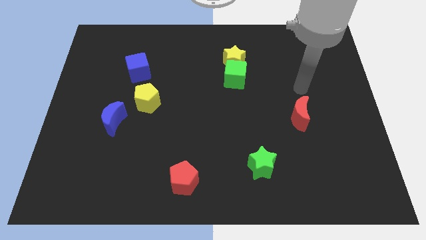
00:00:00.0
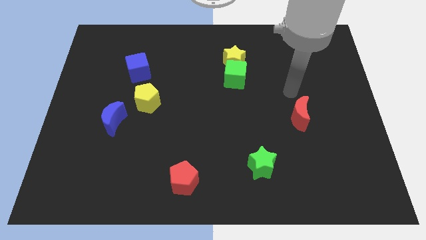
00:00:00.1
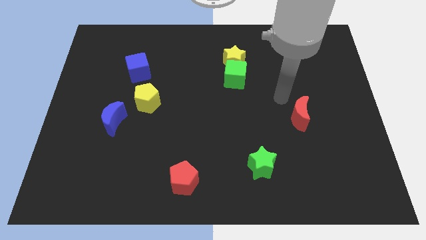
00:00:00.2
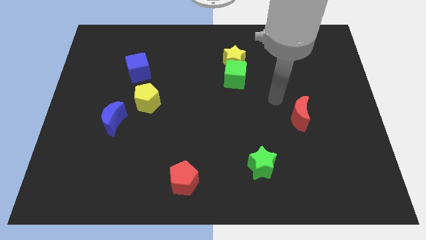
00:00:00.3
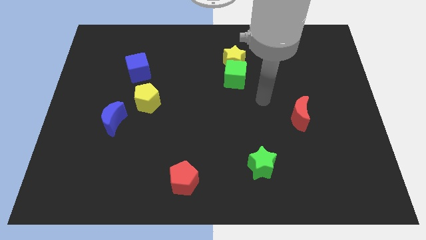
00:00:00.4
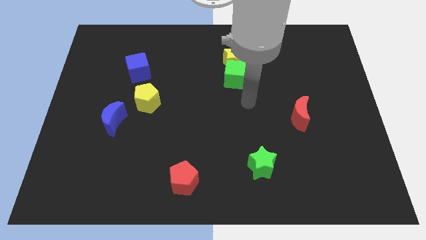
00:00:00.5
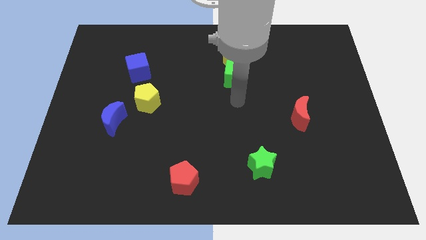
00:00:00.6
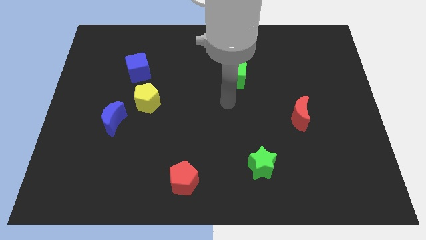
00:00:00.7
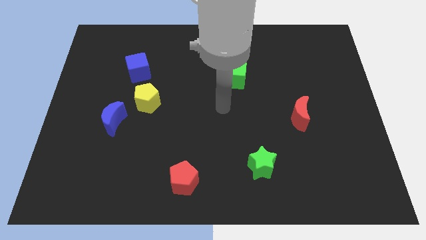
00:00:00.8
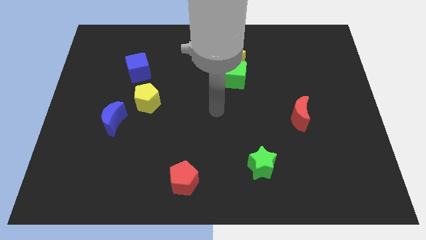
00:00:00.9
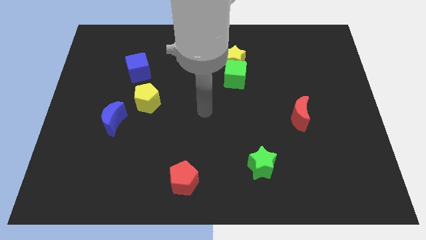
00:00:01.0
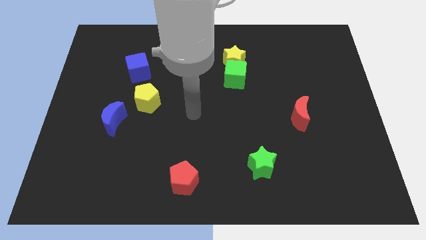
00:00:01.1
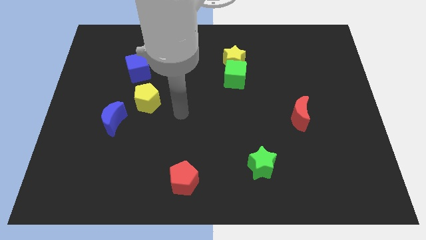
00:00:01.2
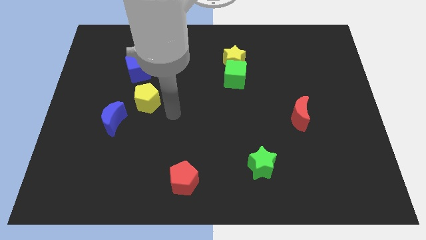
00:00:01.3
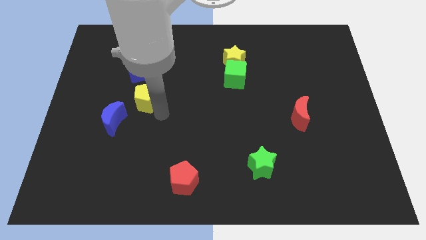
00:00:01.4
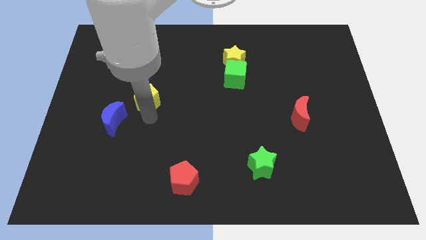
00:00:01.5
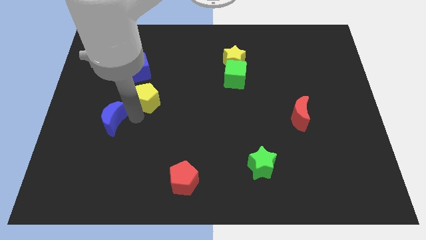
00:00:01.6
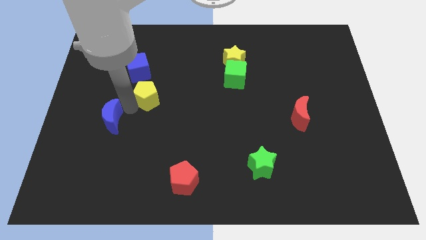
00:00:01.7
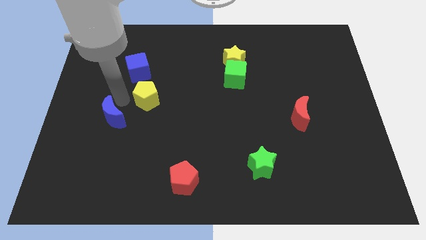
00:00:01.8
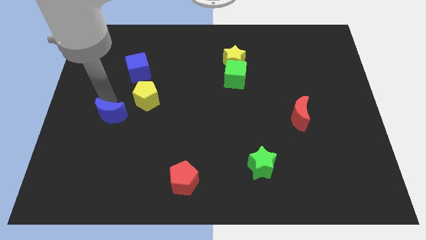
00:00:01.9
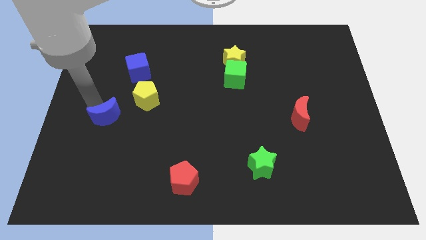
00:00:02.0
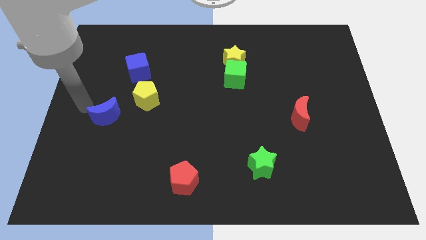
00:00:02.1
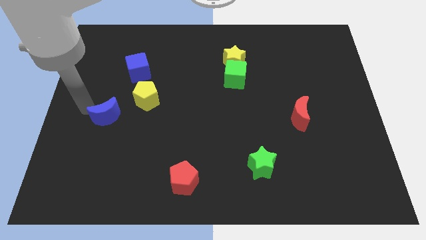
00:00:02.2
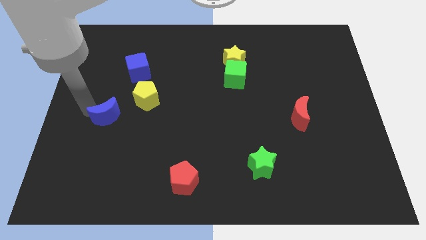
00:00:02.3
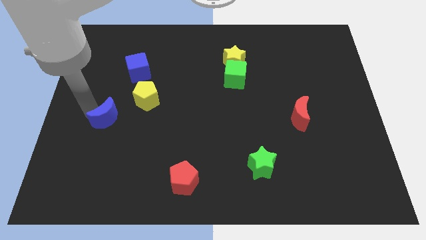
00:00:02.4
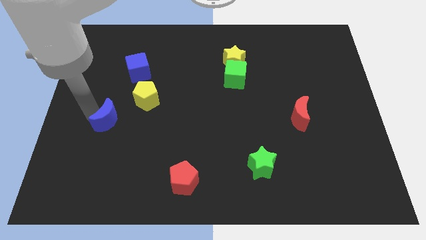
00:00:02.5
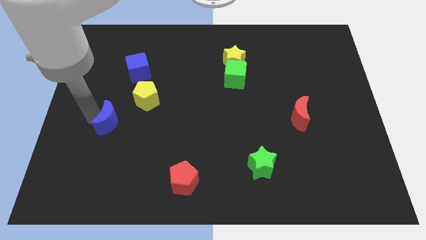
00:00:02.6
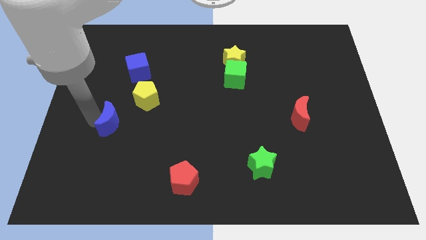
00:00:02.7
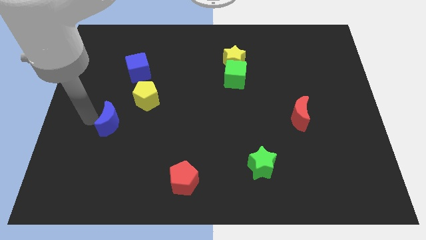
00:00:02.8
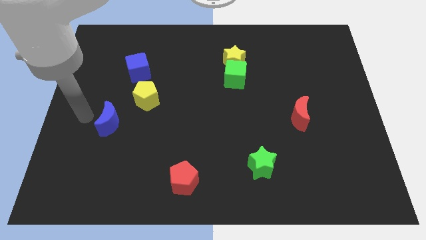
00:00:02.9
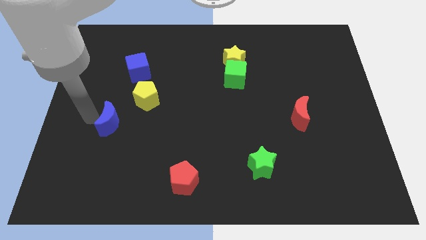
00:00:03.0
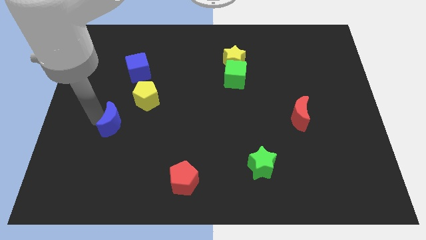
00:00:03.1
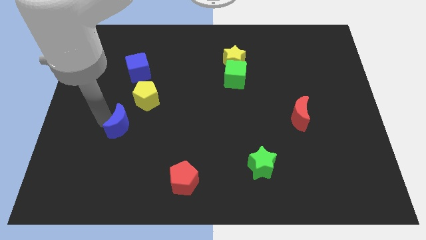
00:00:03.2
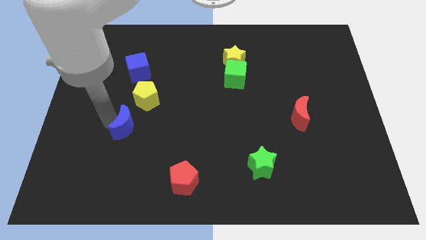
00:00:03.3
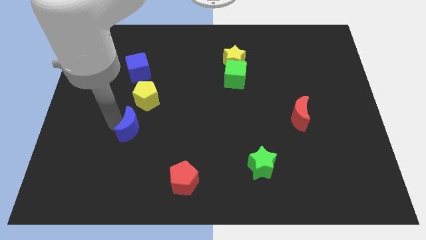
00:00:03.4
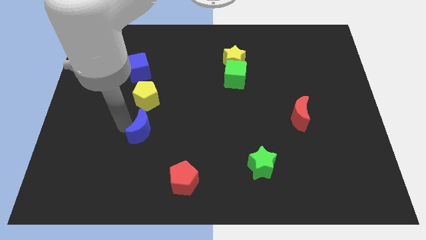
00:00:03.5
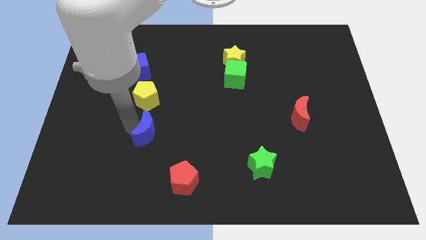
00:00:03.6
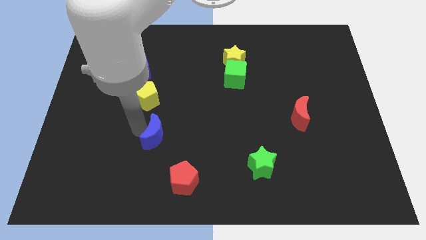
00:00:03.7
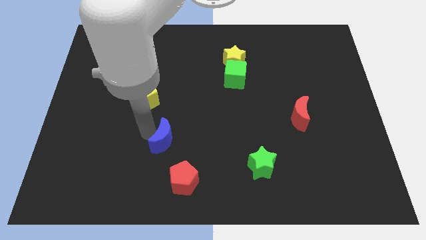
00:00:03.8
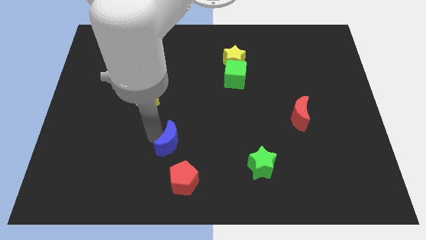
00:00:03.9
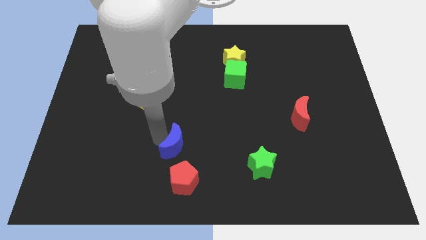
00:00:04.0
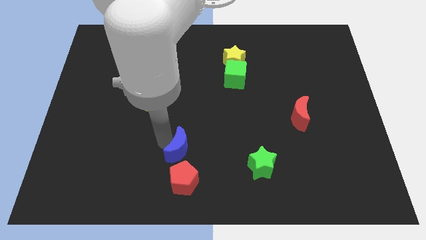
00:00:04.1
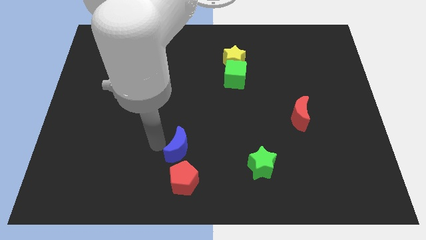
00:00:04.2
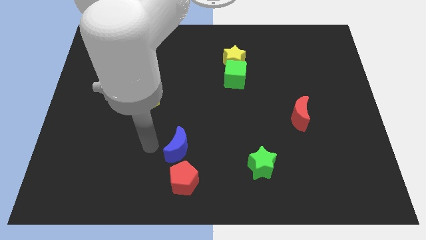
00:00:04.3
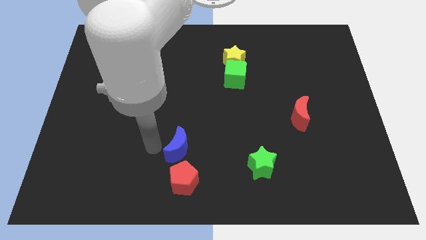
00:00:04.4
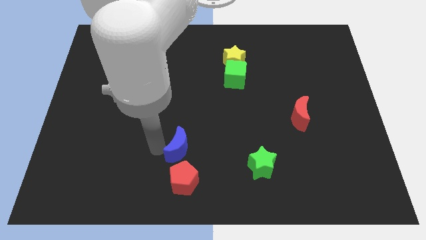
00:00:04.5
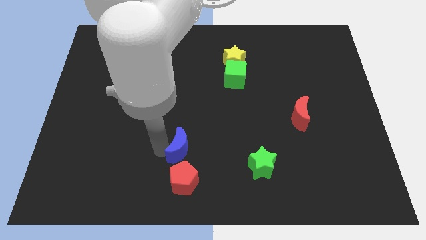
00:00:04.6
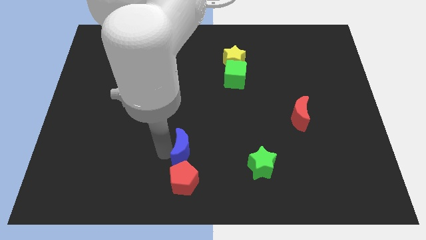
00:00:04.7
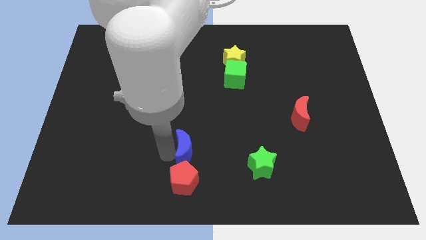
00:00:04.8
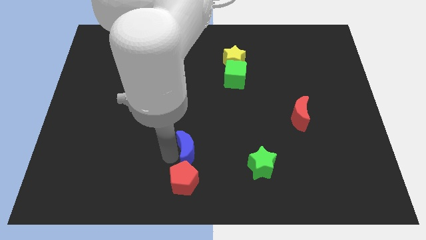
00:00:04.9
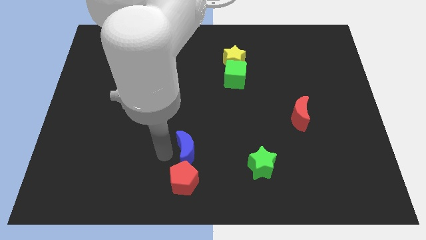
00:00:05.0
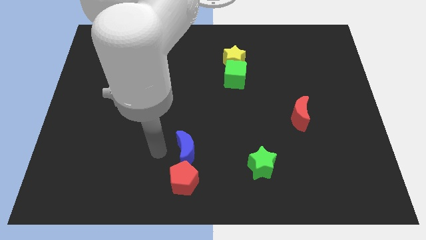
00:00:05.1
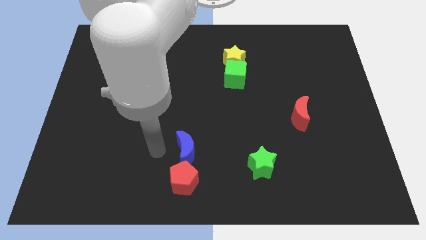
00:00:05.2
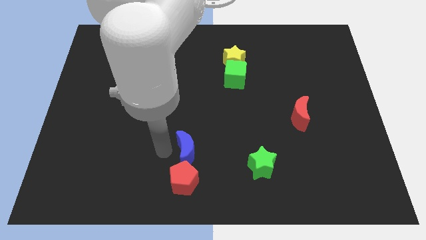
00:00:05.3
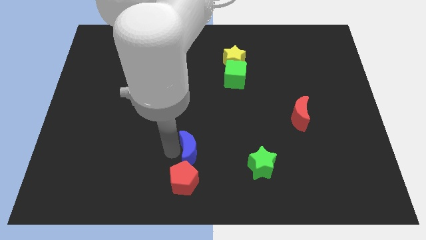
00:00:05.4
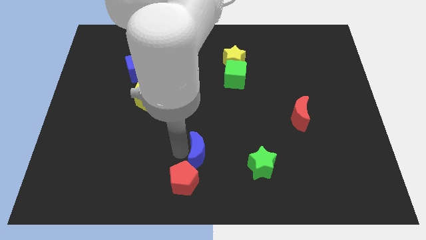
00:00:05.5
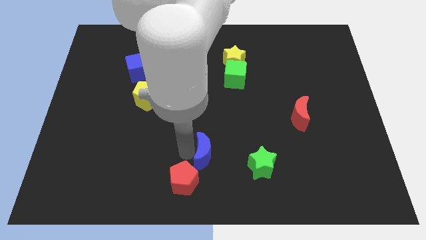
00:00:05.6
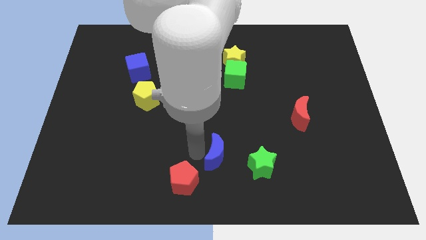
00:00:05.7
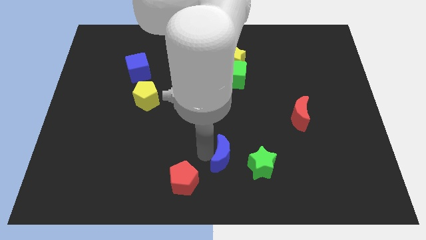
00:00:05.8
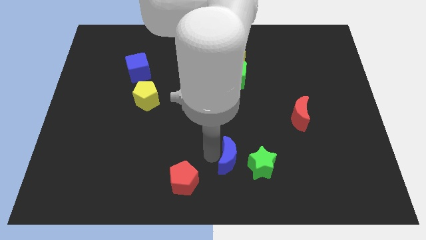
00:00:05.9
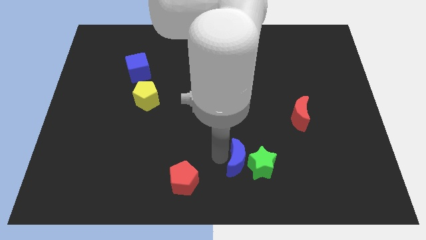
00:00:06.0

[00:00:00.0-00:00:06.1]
slide the blue moon close to the green star
